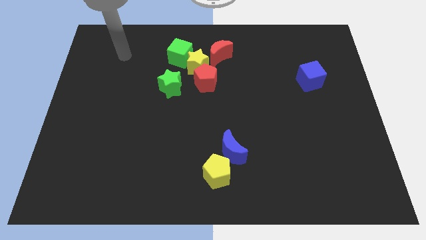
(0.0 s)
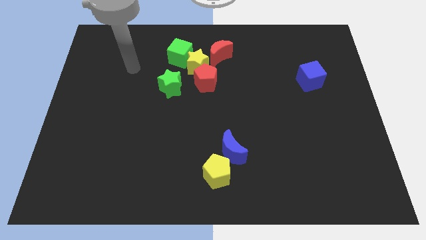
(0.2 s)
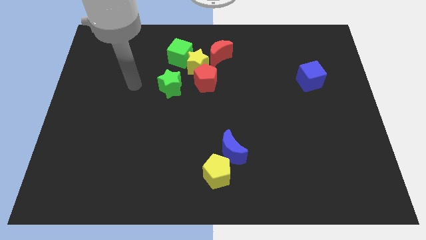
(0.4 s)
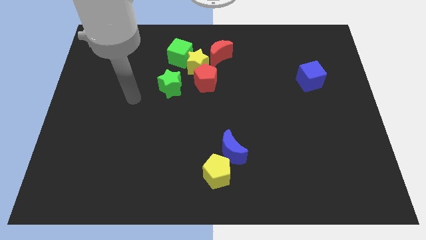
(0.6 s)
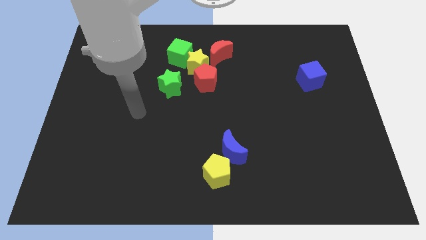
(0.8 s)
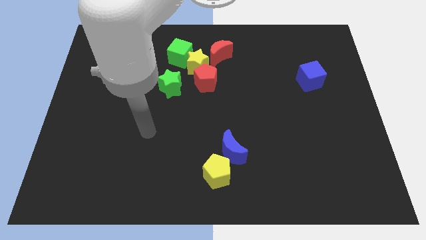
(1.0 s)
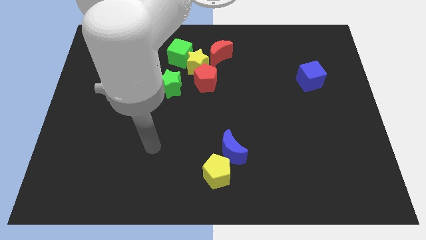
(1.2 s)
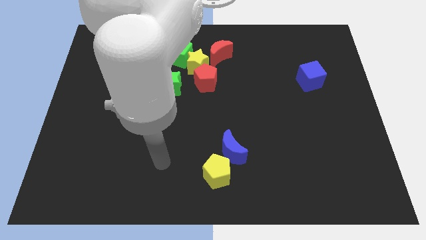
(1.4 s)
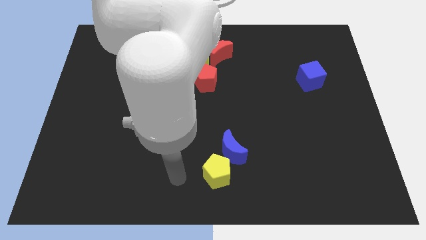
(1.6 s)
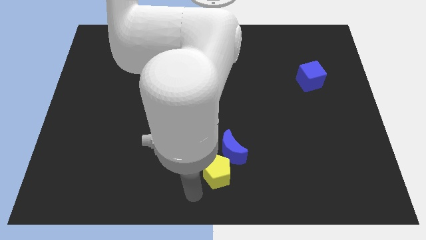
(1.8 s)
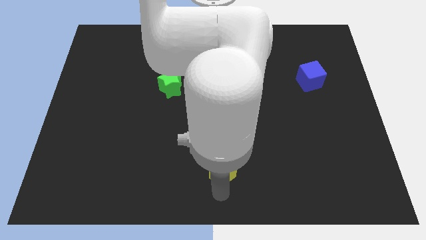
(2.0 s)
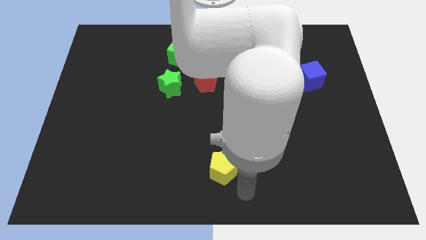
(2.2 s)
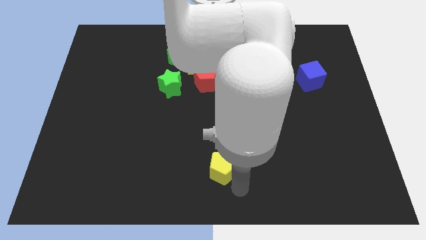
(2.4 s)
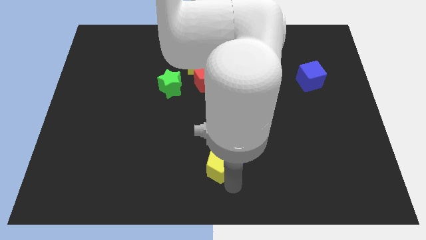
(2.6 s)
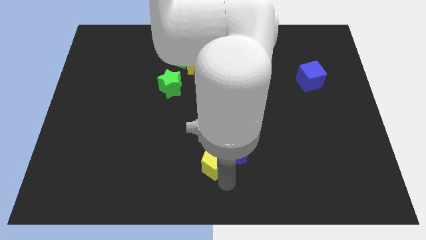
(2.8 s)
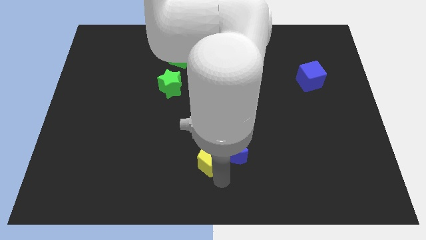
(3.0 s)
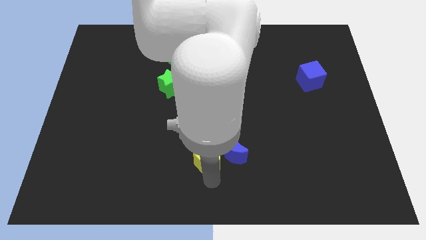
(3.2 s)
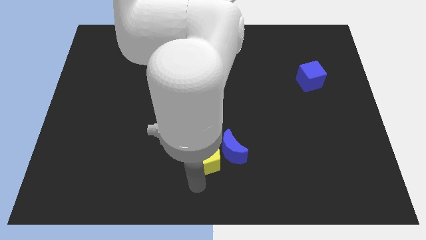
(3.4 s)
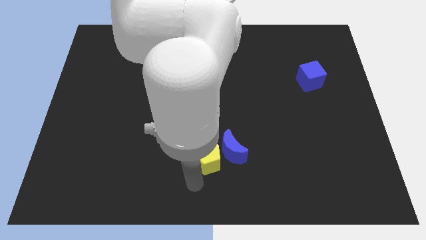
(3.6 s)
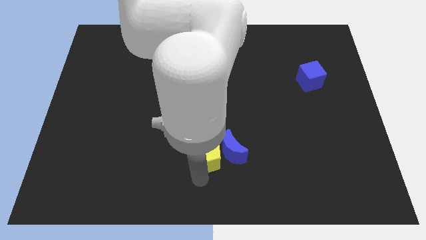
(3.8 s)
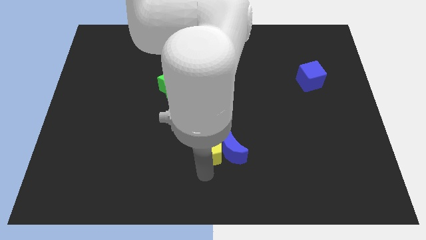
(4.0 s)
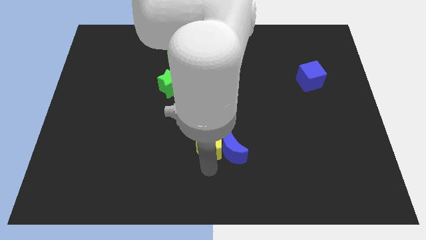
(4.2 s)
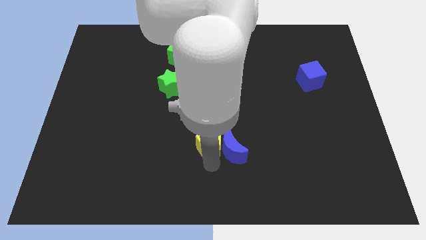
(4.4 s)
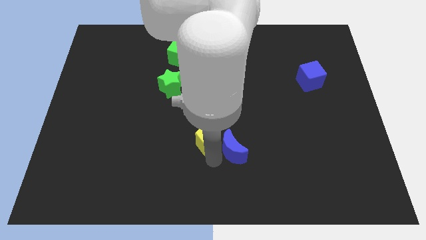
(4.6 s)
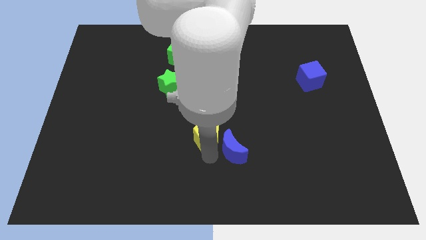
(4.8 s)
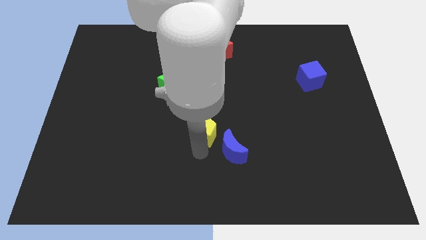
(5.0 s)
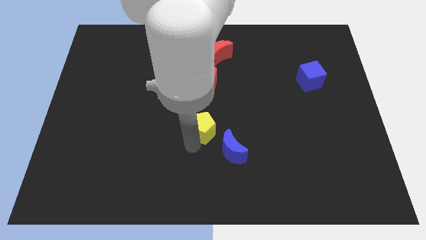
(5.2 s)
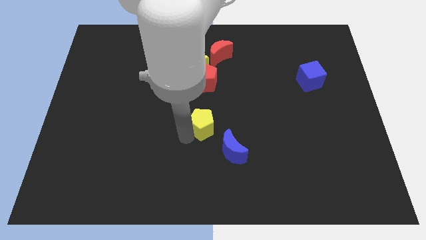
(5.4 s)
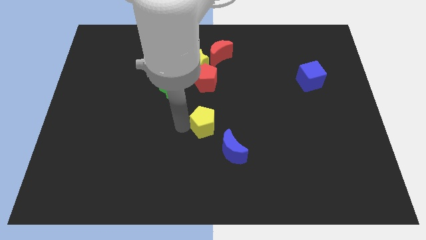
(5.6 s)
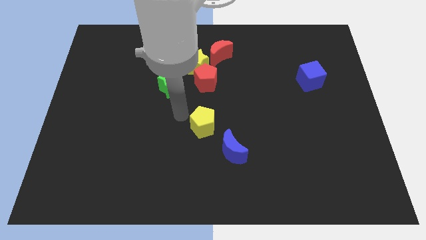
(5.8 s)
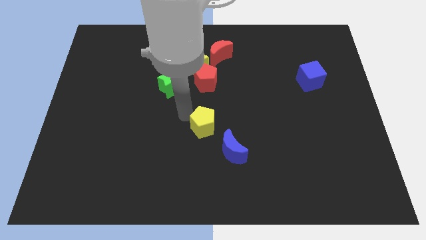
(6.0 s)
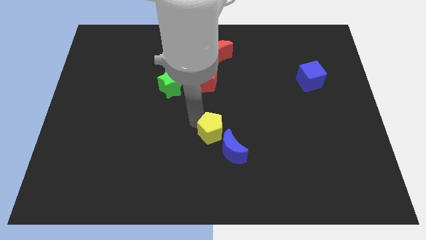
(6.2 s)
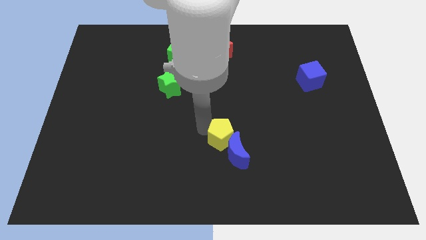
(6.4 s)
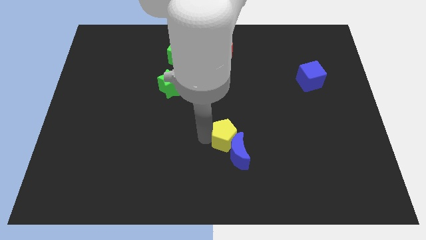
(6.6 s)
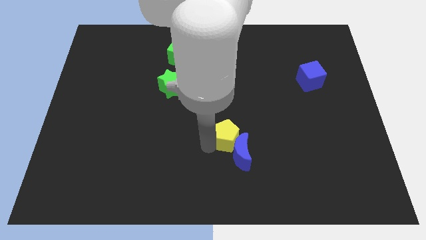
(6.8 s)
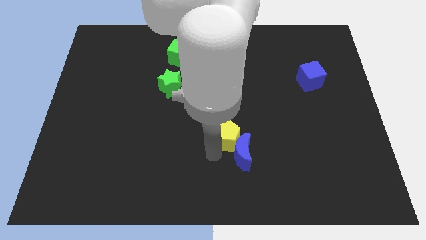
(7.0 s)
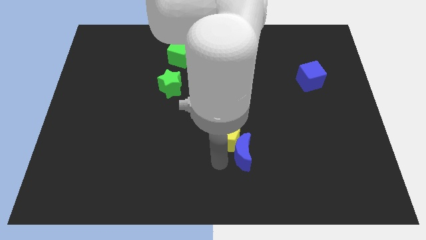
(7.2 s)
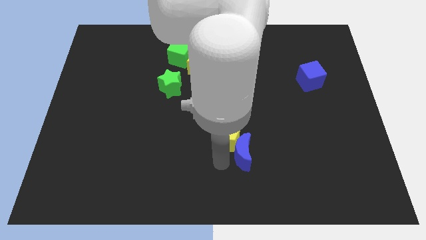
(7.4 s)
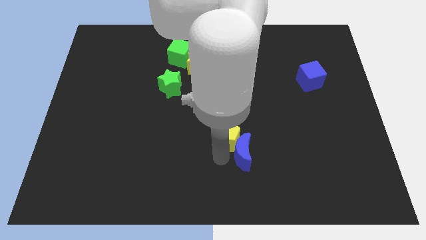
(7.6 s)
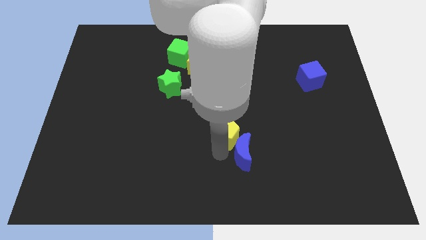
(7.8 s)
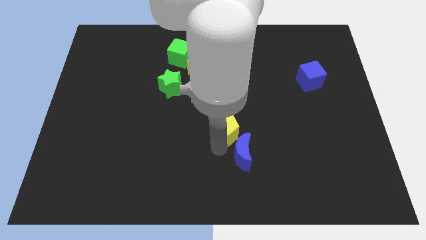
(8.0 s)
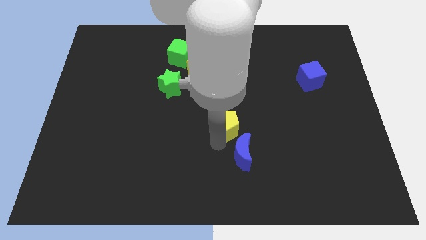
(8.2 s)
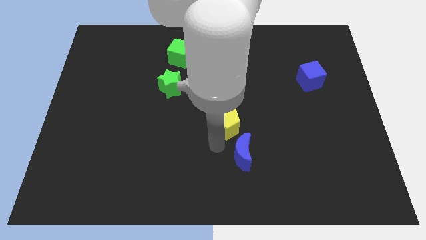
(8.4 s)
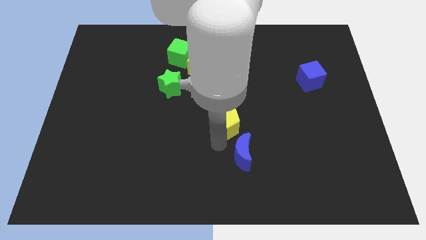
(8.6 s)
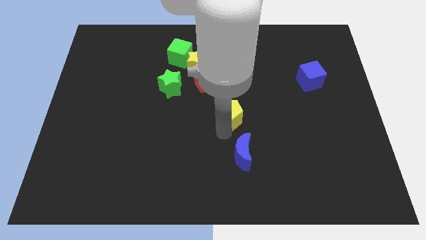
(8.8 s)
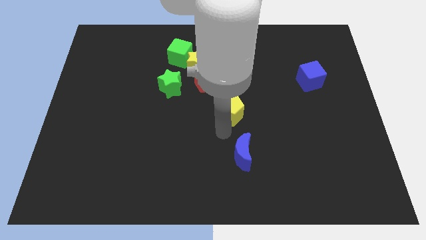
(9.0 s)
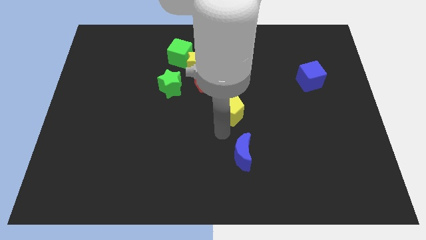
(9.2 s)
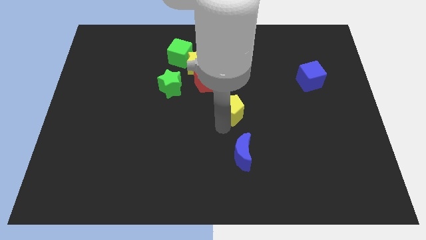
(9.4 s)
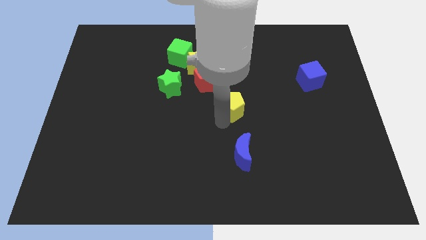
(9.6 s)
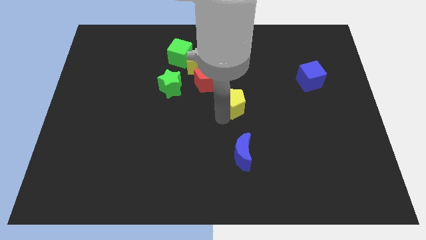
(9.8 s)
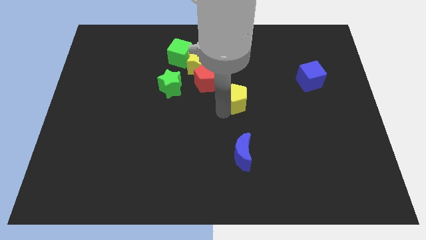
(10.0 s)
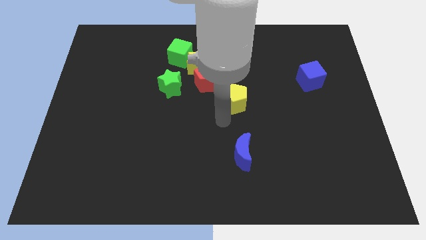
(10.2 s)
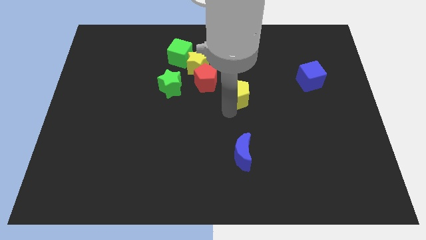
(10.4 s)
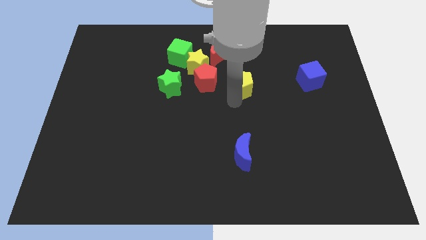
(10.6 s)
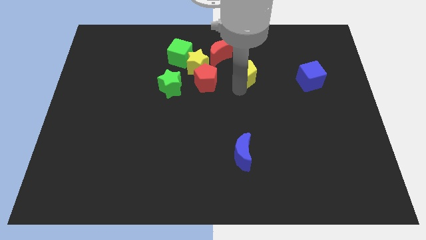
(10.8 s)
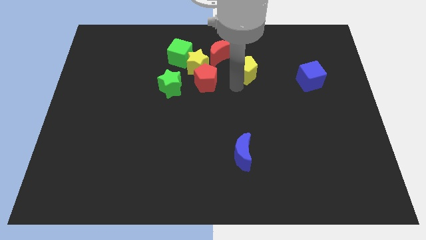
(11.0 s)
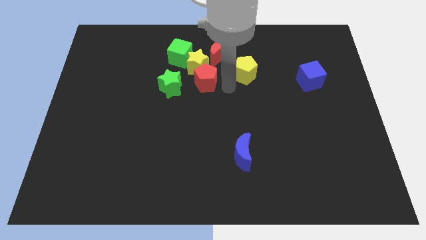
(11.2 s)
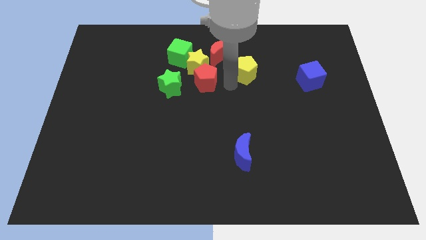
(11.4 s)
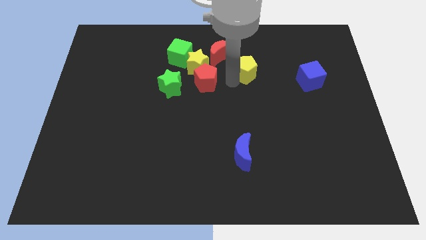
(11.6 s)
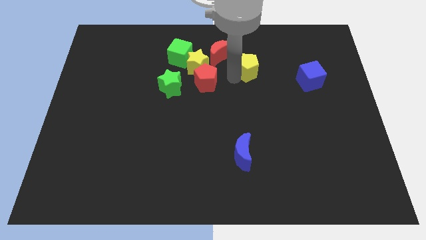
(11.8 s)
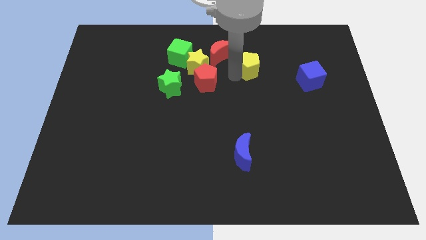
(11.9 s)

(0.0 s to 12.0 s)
put the yellow pentagon to the right side of the red moon

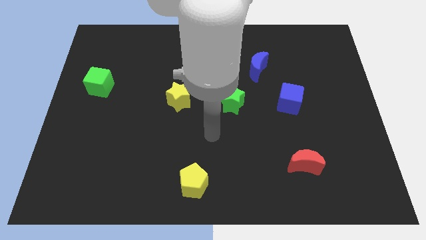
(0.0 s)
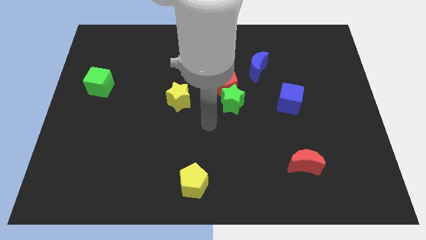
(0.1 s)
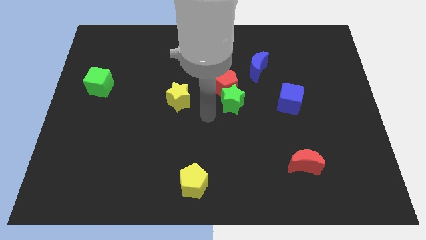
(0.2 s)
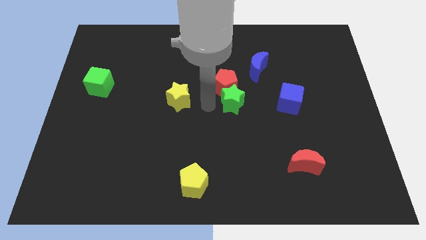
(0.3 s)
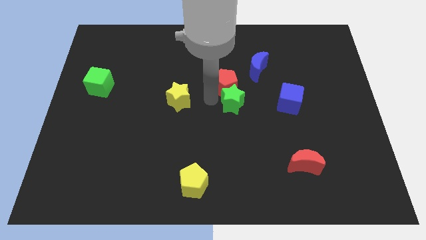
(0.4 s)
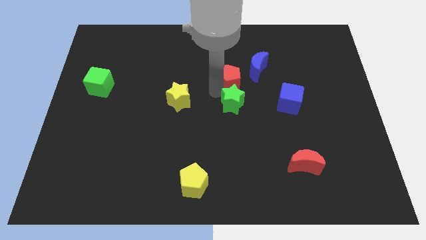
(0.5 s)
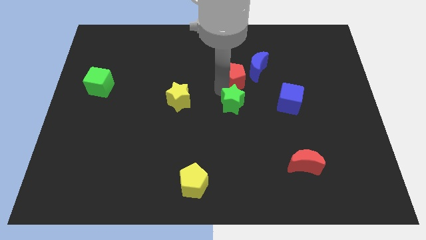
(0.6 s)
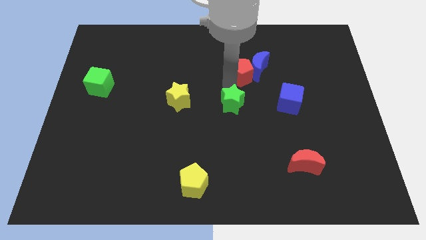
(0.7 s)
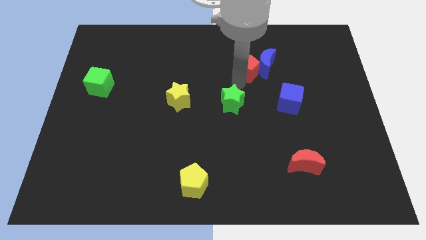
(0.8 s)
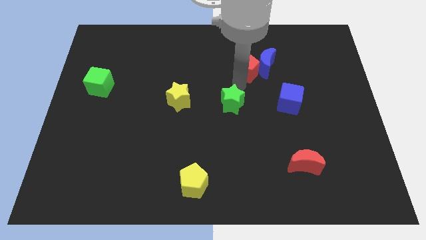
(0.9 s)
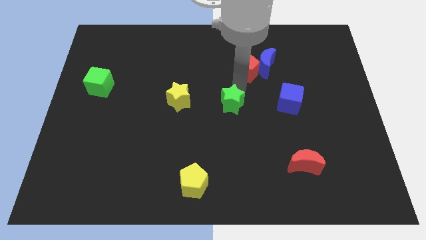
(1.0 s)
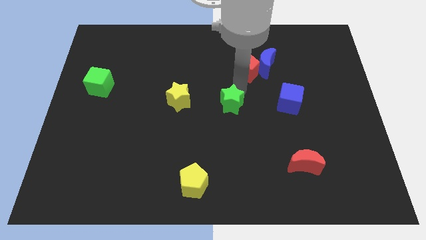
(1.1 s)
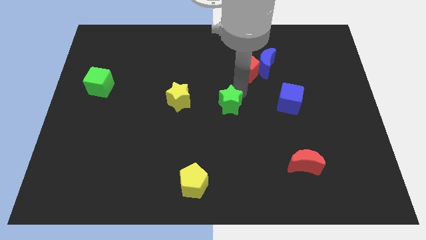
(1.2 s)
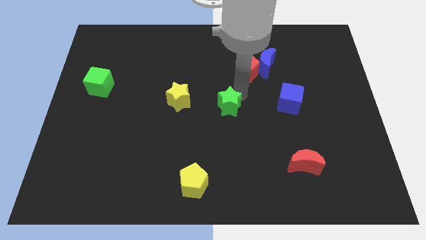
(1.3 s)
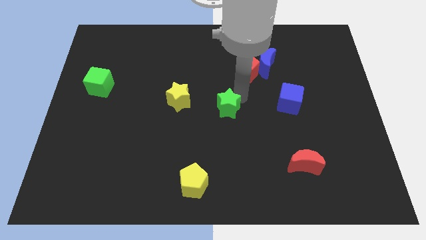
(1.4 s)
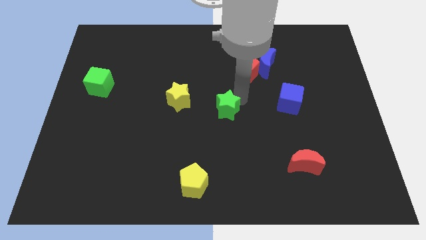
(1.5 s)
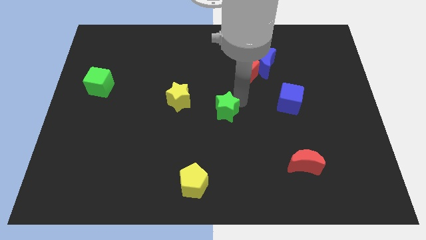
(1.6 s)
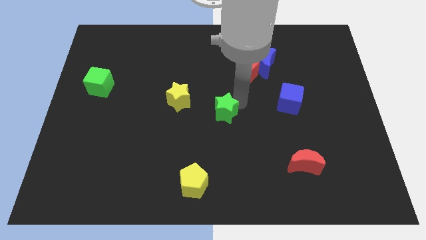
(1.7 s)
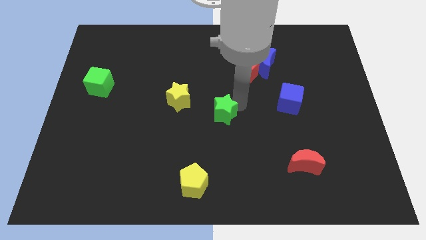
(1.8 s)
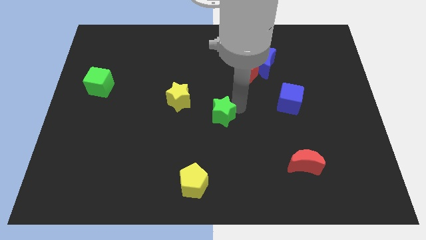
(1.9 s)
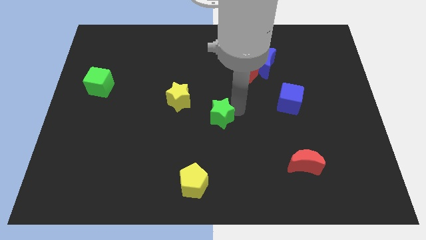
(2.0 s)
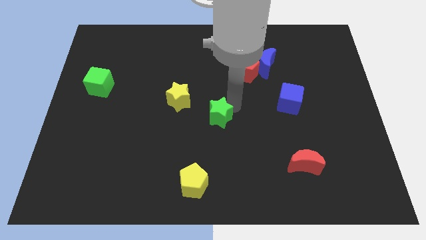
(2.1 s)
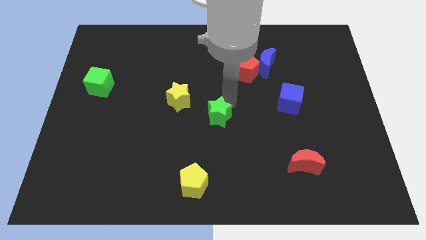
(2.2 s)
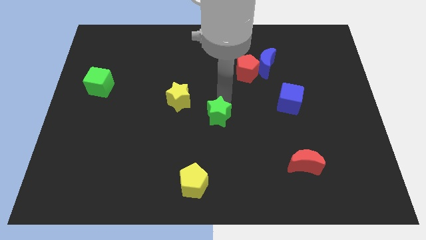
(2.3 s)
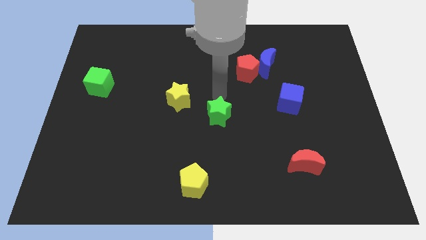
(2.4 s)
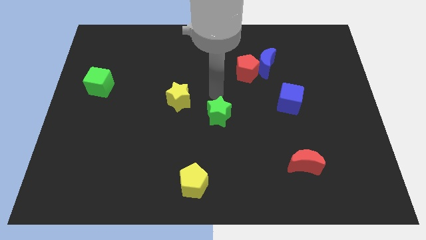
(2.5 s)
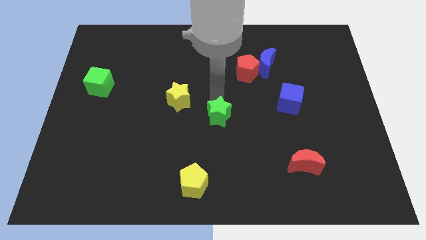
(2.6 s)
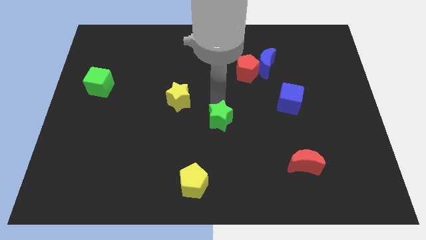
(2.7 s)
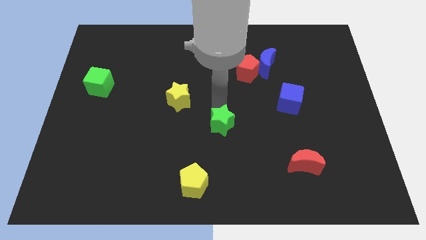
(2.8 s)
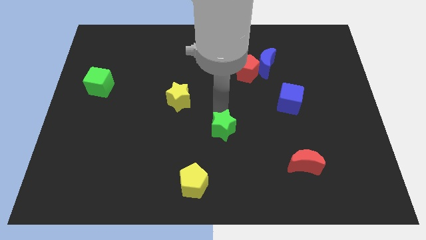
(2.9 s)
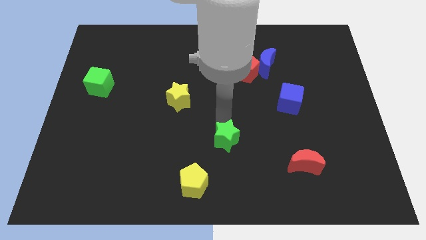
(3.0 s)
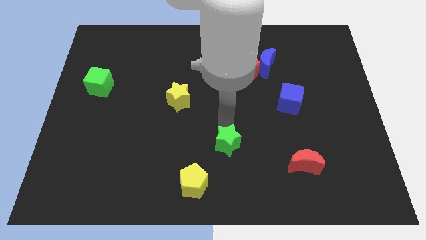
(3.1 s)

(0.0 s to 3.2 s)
slide the green star to the top right side of the yellow pentagon
